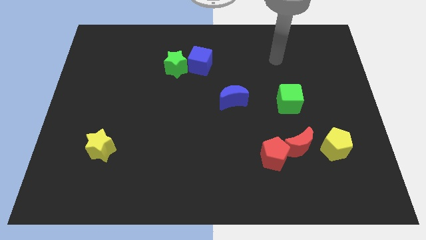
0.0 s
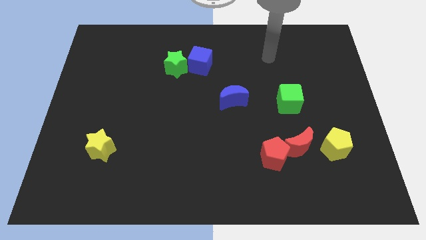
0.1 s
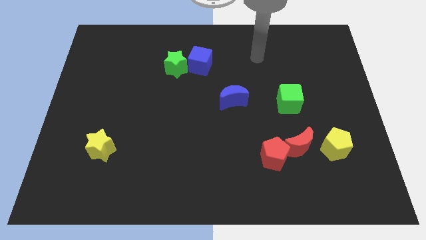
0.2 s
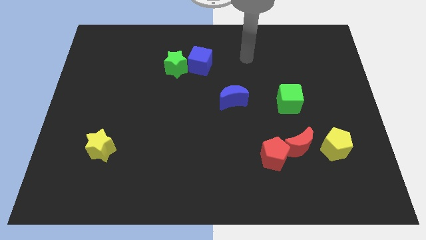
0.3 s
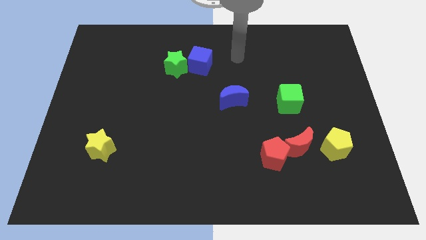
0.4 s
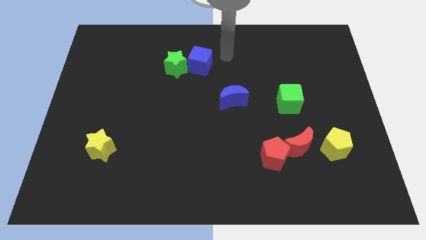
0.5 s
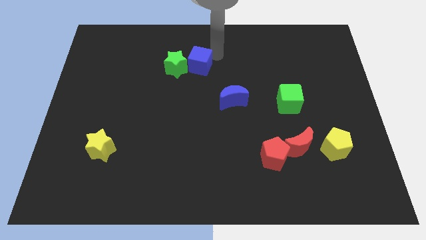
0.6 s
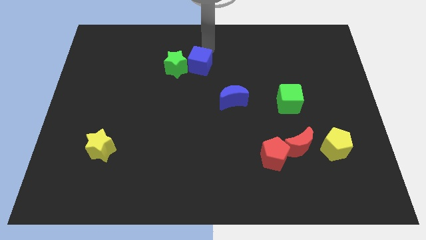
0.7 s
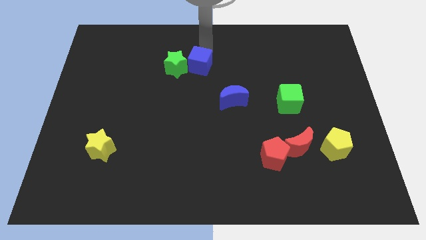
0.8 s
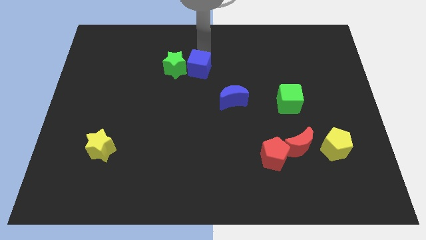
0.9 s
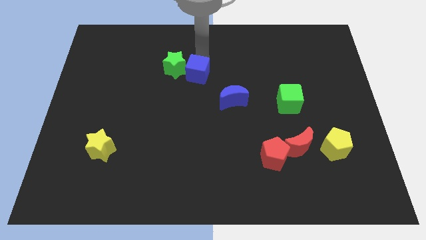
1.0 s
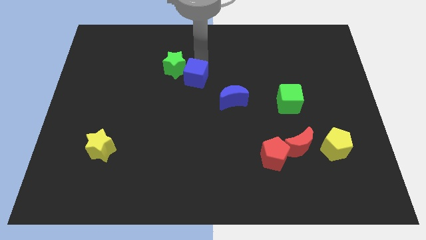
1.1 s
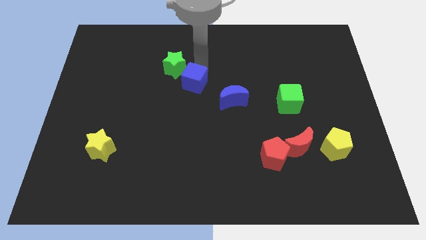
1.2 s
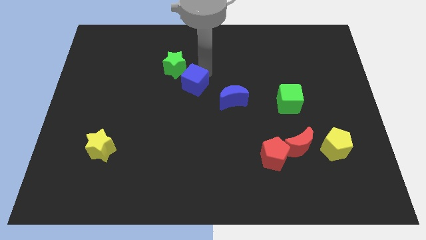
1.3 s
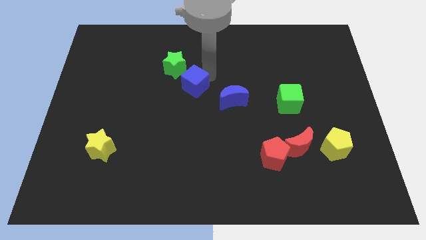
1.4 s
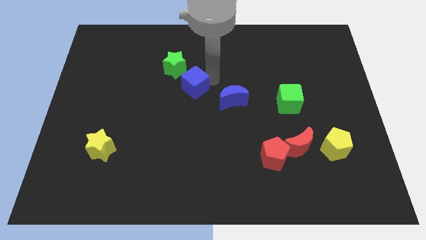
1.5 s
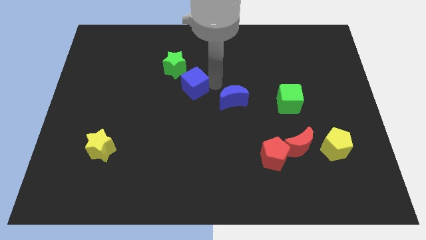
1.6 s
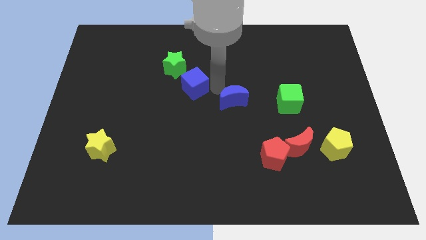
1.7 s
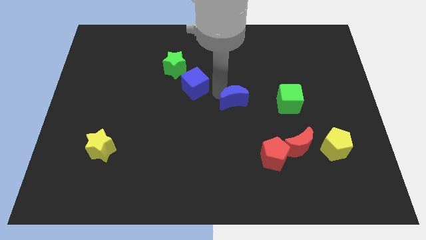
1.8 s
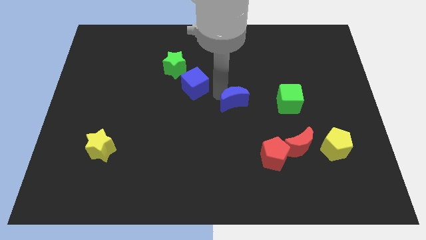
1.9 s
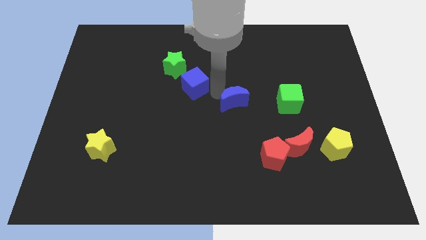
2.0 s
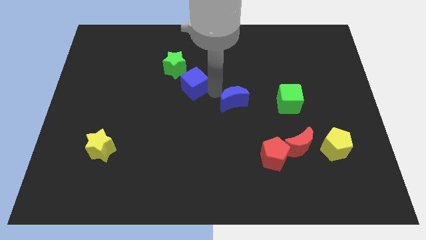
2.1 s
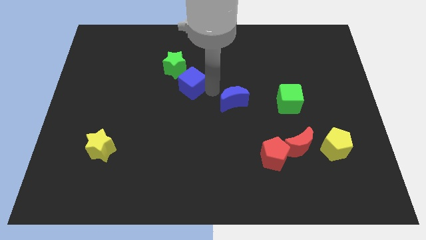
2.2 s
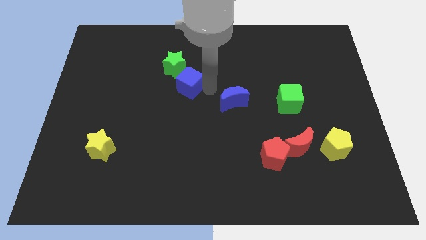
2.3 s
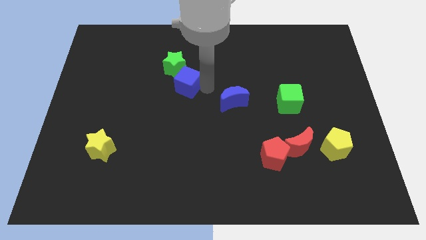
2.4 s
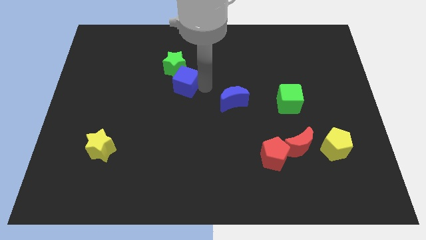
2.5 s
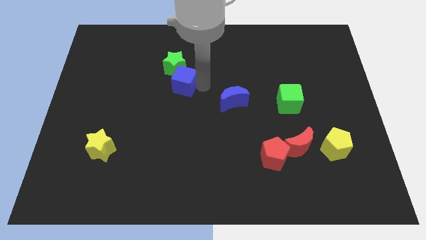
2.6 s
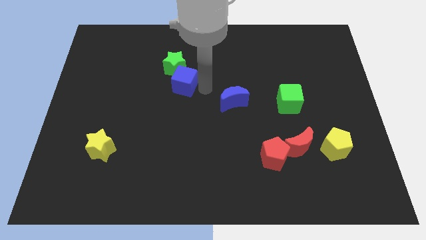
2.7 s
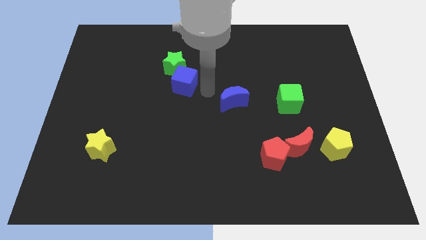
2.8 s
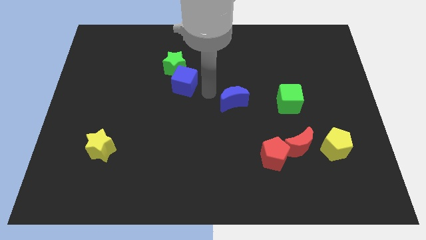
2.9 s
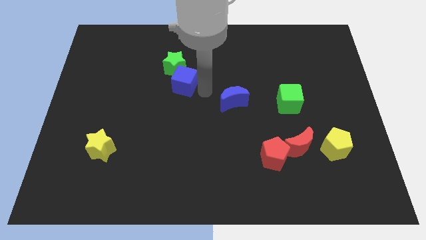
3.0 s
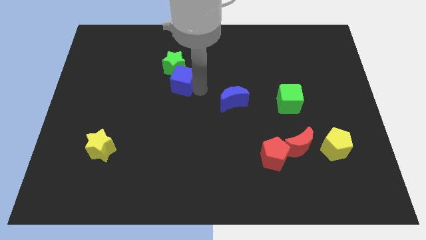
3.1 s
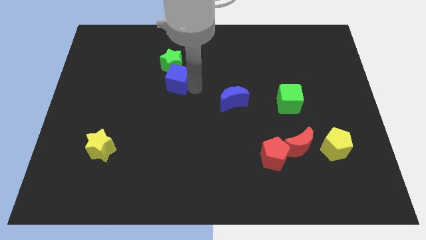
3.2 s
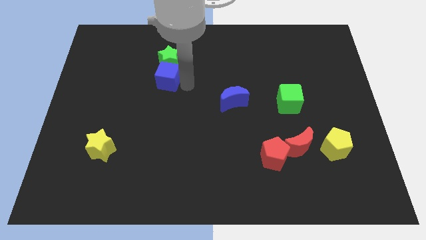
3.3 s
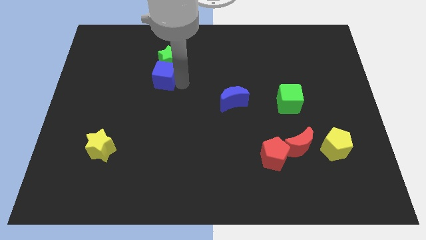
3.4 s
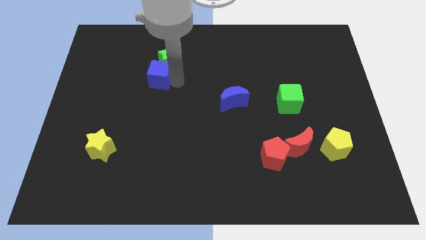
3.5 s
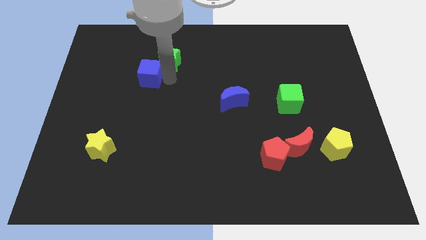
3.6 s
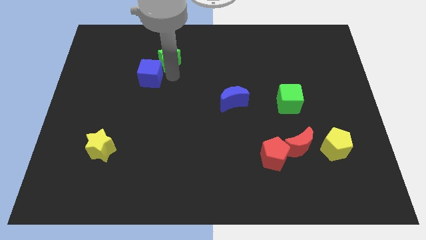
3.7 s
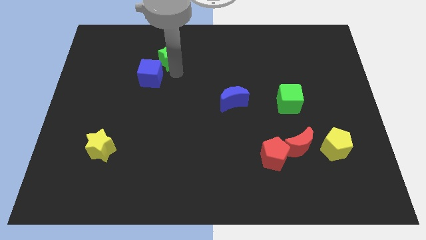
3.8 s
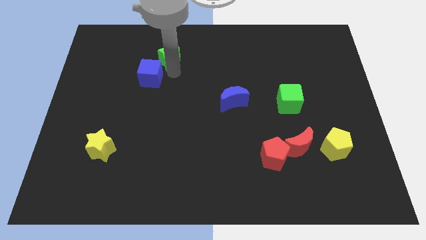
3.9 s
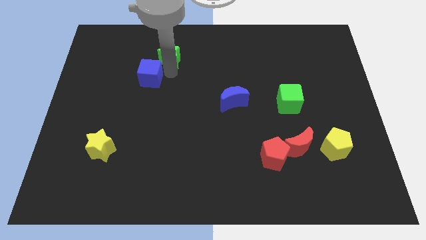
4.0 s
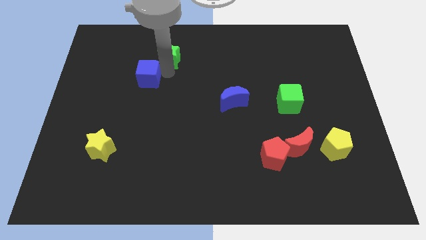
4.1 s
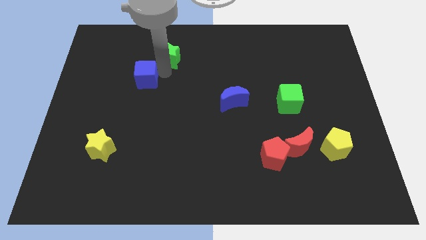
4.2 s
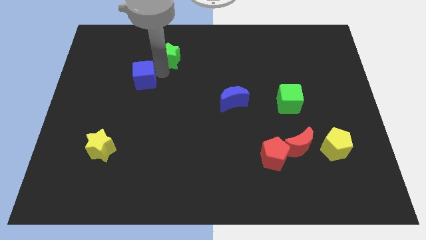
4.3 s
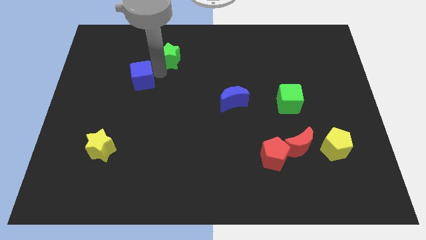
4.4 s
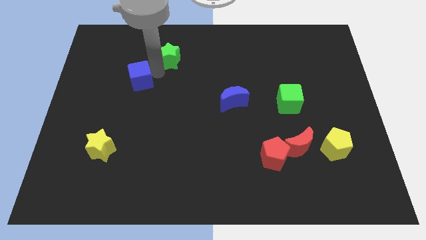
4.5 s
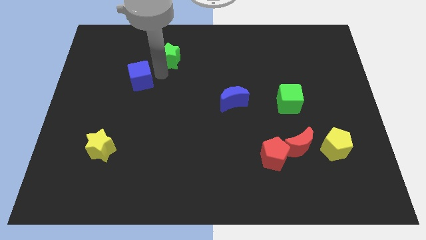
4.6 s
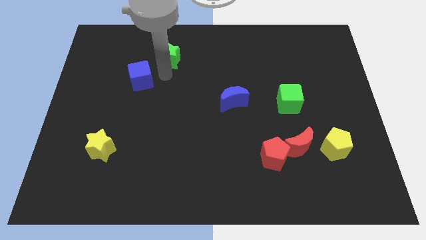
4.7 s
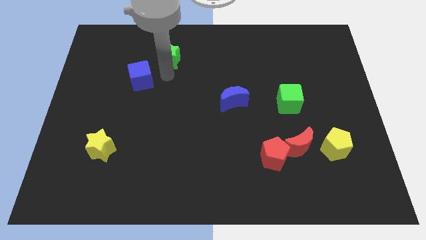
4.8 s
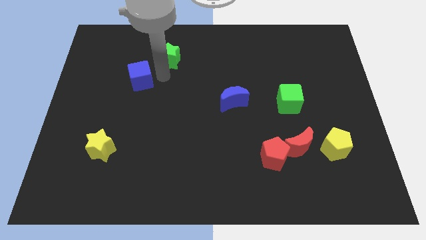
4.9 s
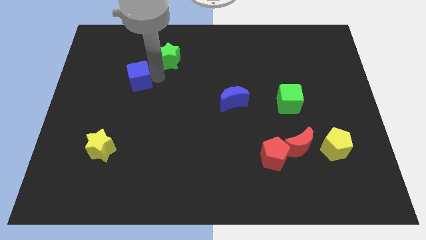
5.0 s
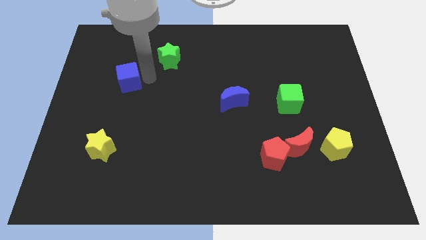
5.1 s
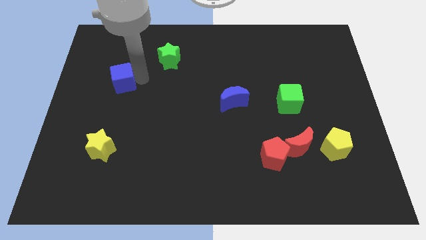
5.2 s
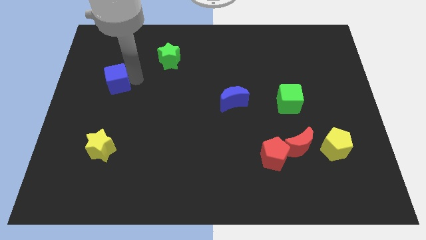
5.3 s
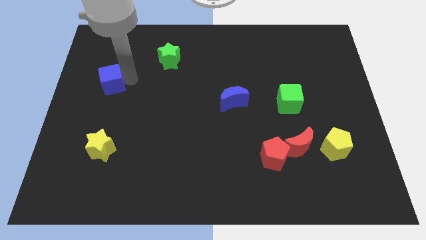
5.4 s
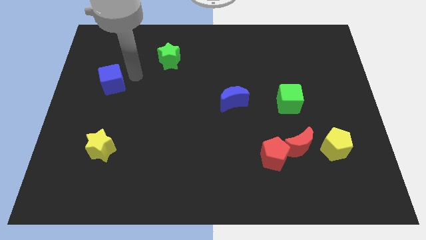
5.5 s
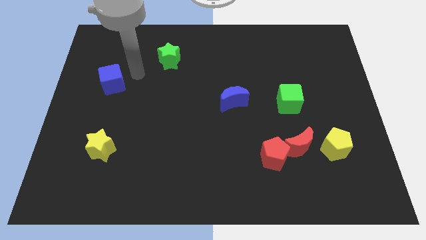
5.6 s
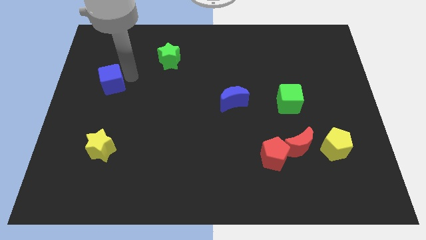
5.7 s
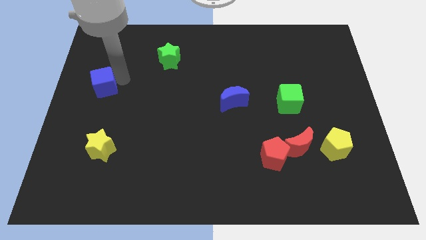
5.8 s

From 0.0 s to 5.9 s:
put the blue cube to the center left
